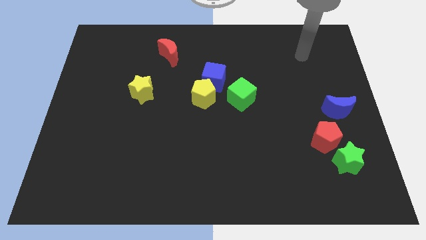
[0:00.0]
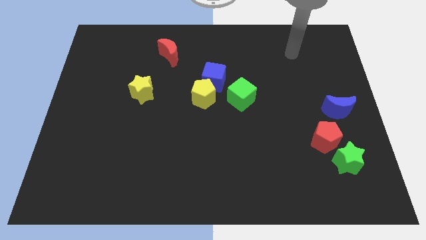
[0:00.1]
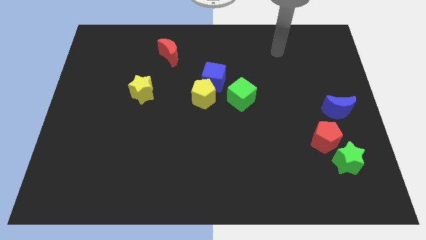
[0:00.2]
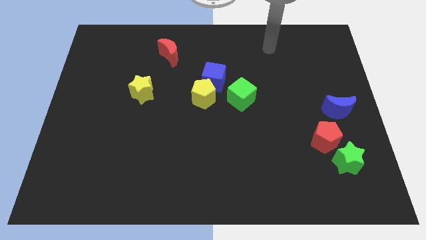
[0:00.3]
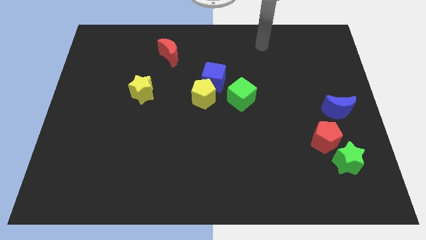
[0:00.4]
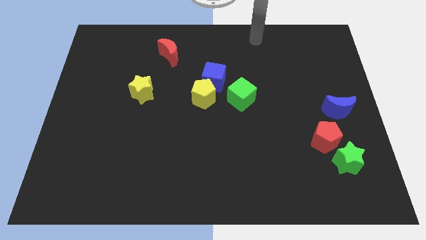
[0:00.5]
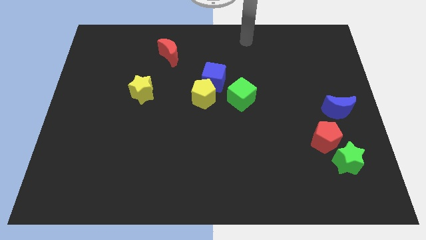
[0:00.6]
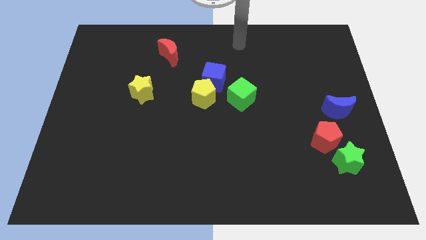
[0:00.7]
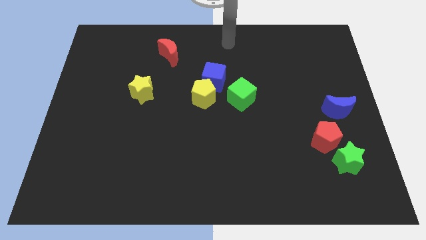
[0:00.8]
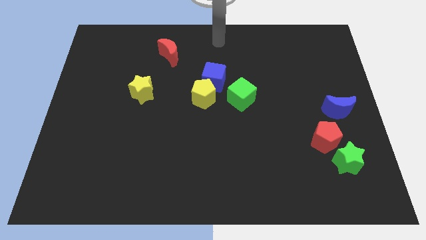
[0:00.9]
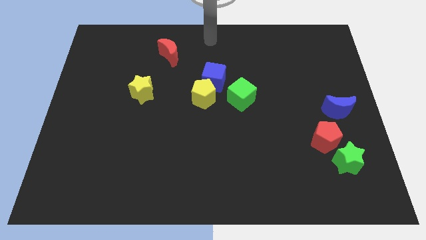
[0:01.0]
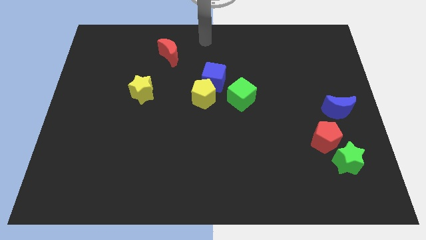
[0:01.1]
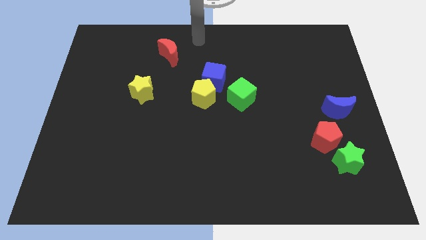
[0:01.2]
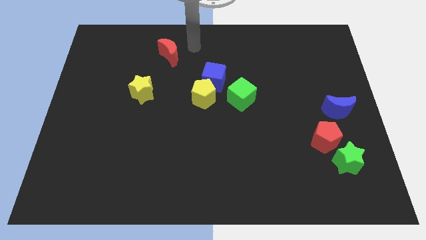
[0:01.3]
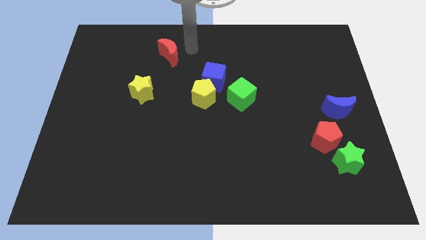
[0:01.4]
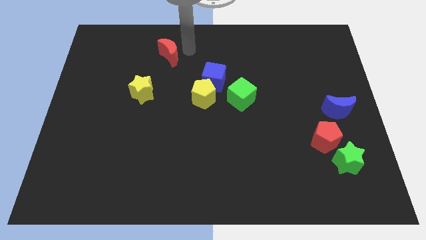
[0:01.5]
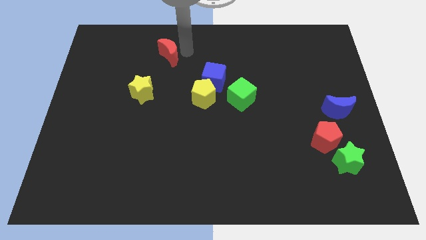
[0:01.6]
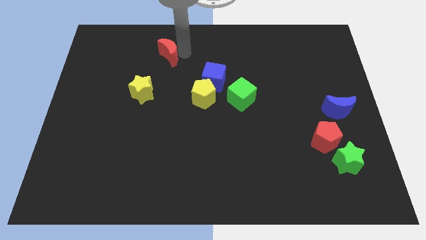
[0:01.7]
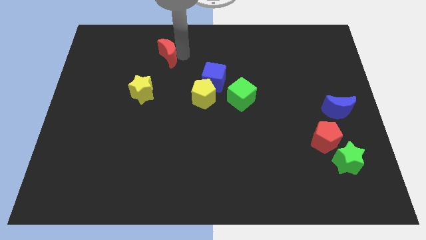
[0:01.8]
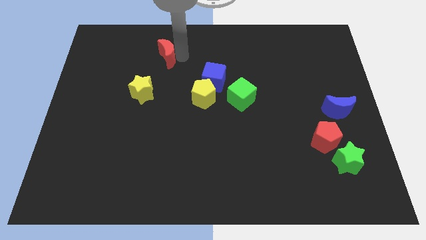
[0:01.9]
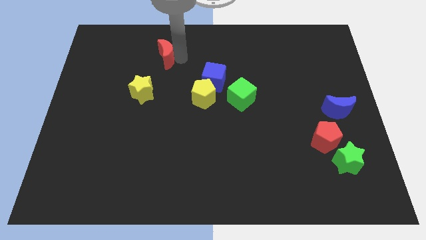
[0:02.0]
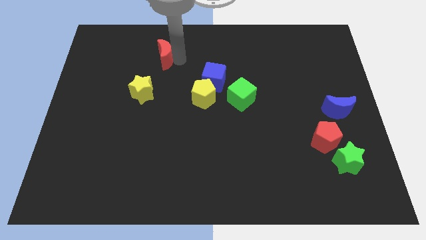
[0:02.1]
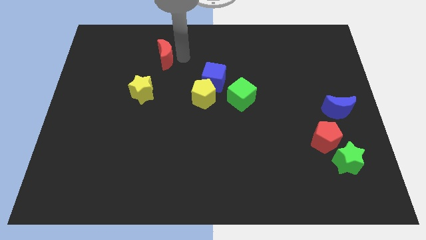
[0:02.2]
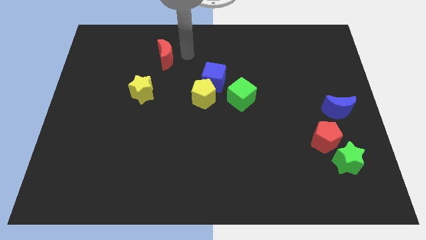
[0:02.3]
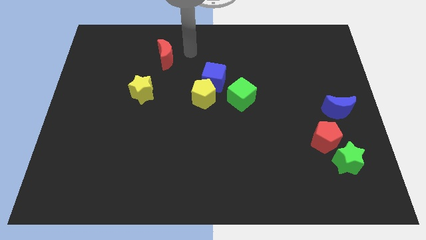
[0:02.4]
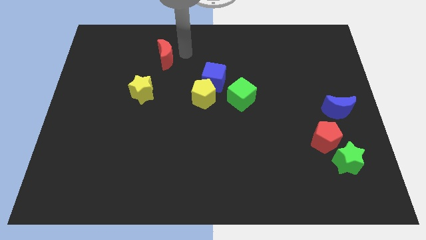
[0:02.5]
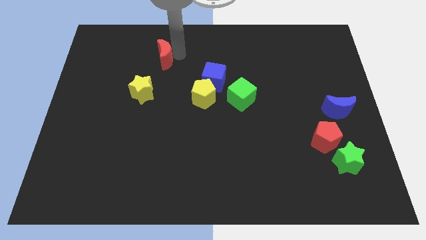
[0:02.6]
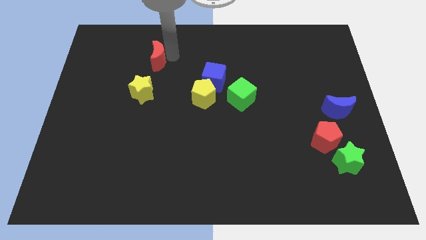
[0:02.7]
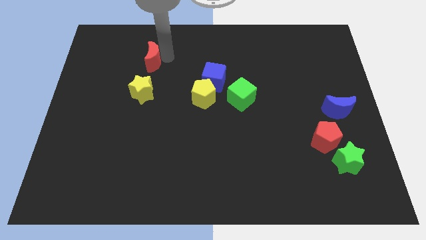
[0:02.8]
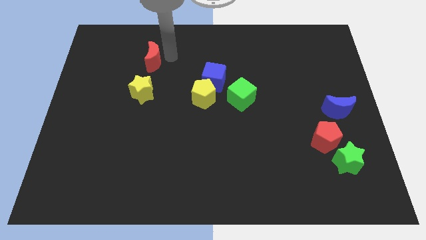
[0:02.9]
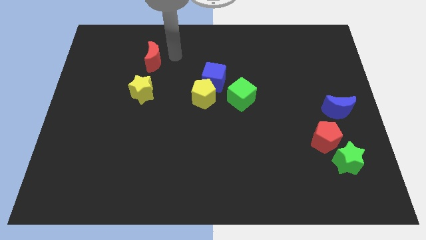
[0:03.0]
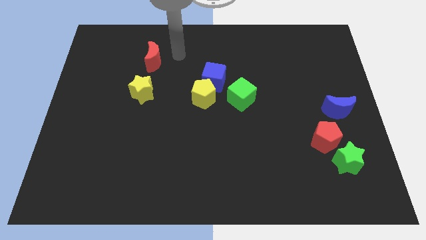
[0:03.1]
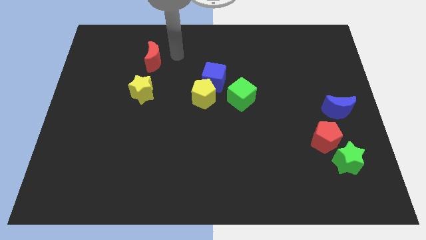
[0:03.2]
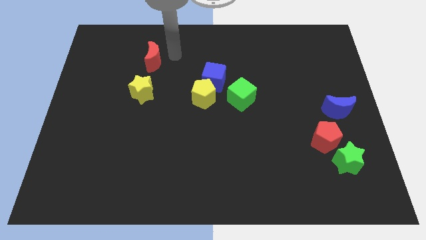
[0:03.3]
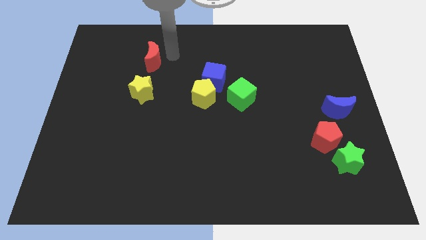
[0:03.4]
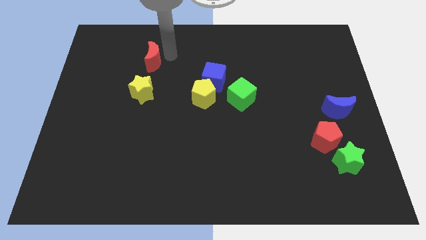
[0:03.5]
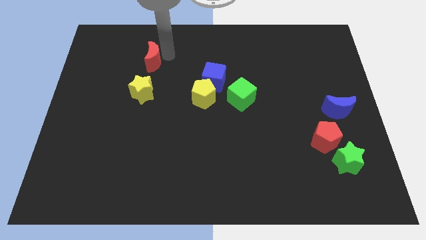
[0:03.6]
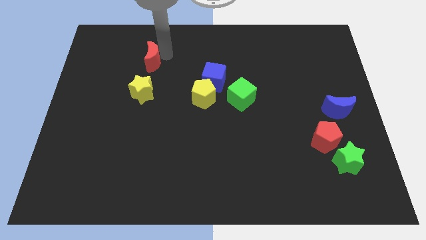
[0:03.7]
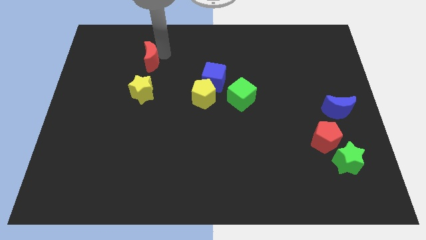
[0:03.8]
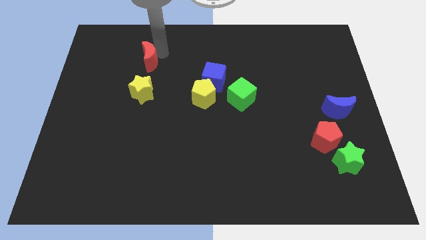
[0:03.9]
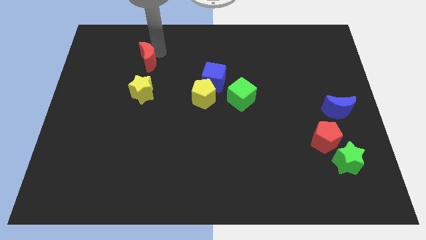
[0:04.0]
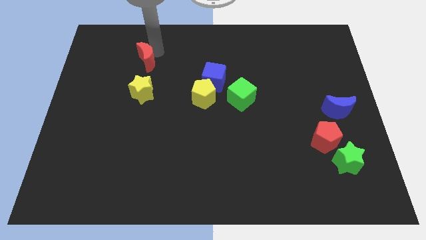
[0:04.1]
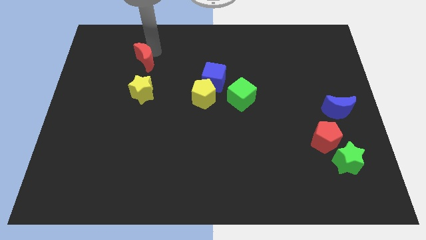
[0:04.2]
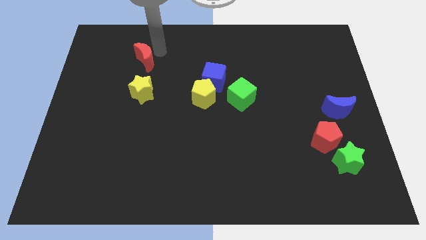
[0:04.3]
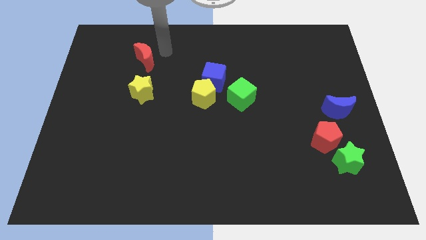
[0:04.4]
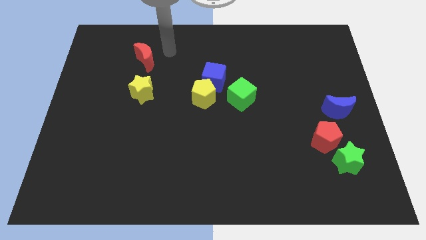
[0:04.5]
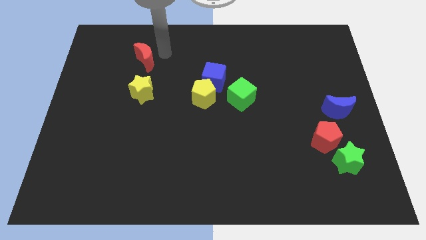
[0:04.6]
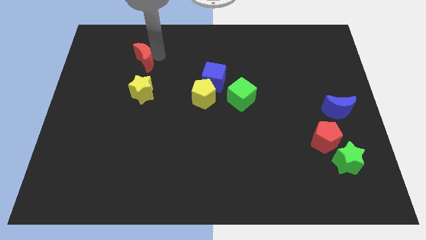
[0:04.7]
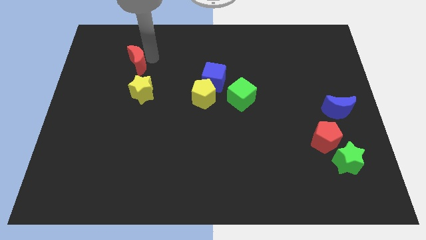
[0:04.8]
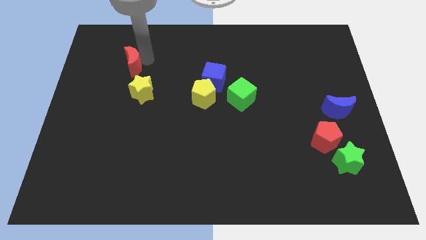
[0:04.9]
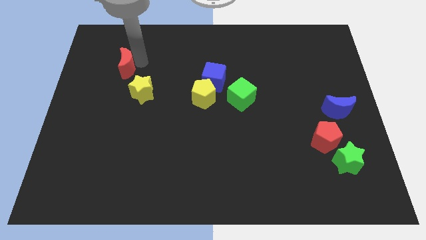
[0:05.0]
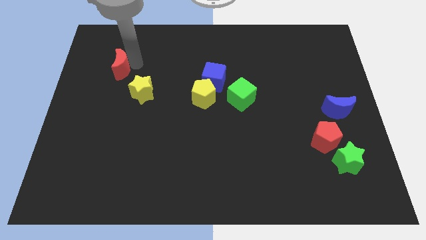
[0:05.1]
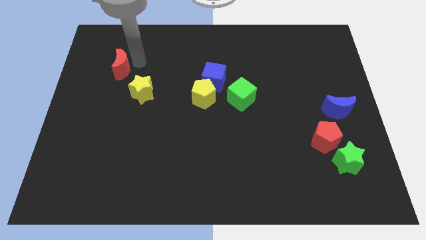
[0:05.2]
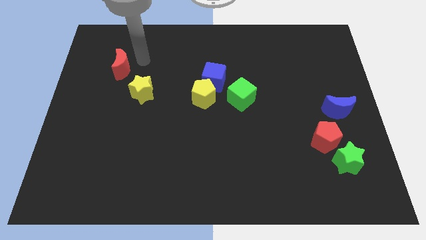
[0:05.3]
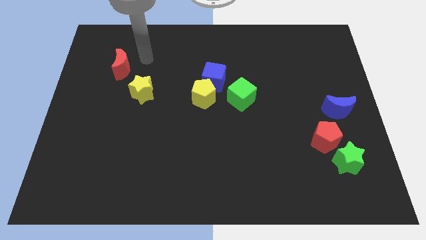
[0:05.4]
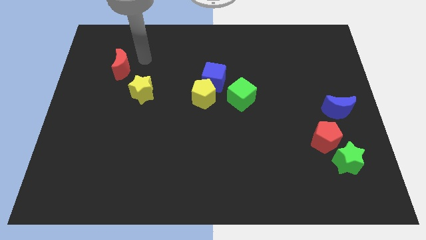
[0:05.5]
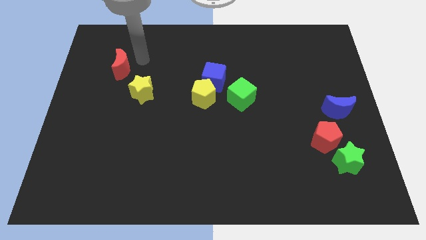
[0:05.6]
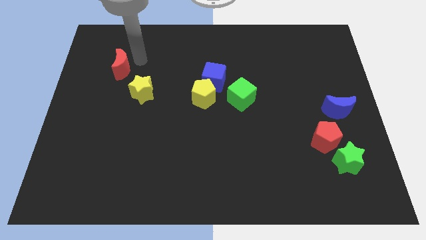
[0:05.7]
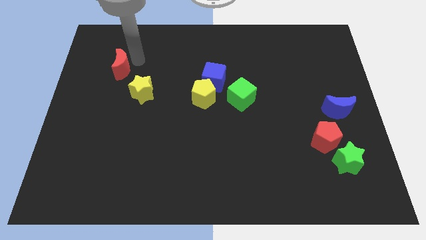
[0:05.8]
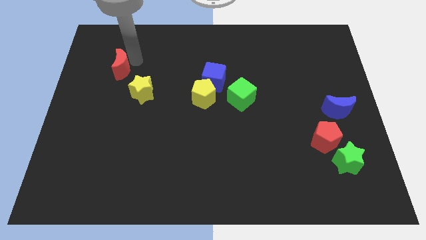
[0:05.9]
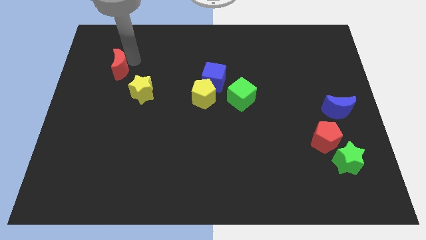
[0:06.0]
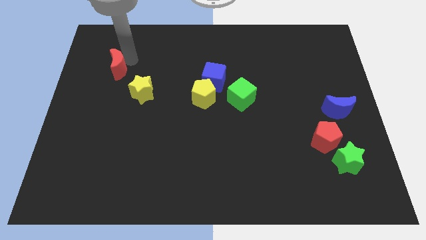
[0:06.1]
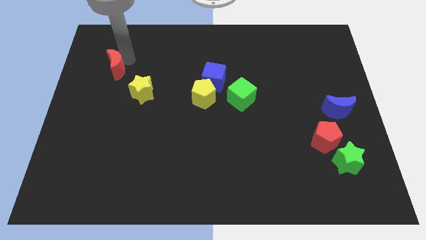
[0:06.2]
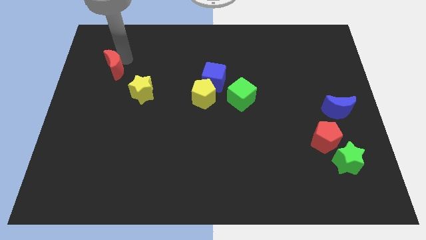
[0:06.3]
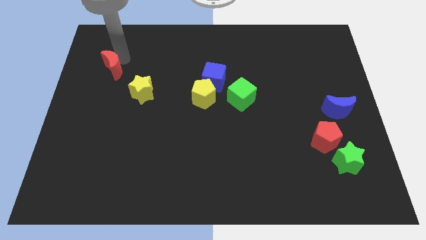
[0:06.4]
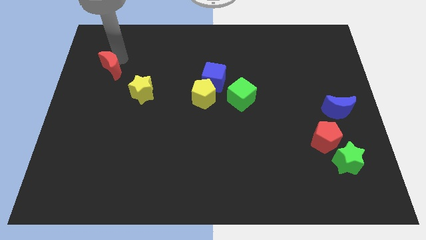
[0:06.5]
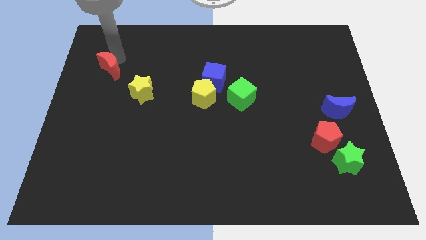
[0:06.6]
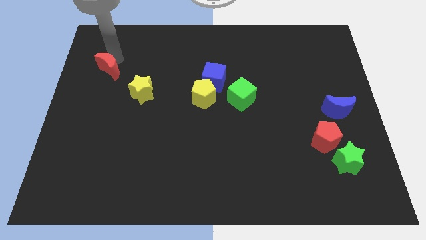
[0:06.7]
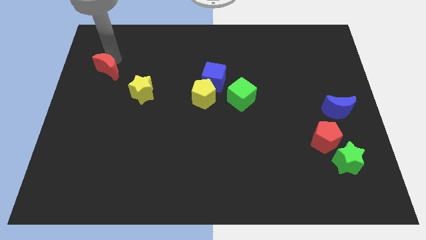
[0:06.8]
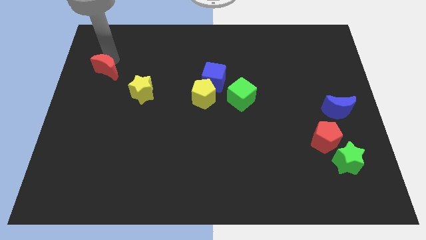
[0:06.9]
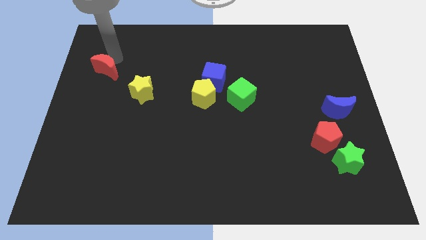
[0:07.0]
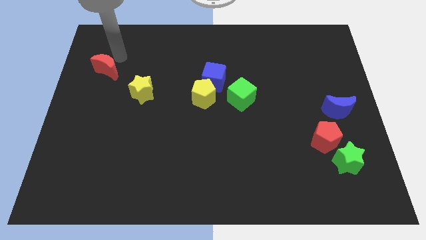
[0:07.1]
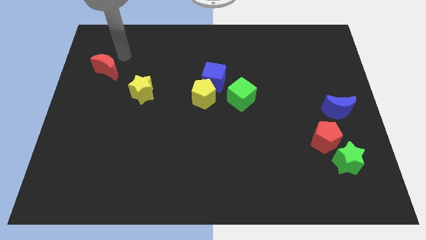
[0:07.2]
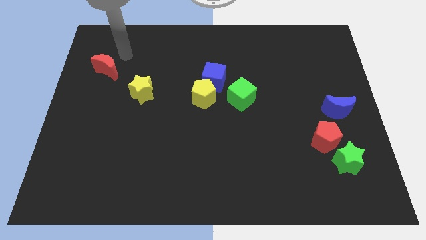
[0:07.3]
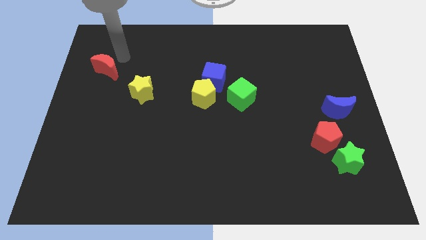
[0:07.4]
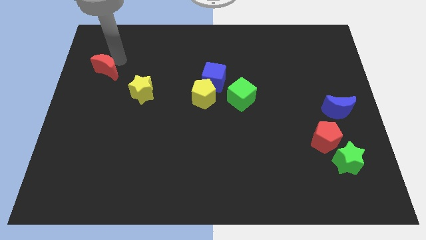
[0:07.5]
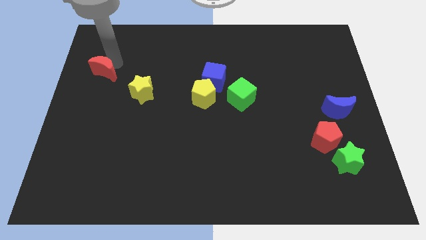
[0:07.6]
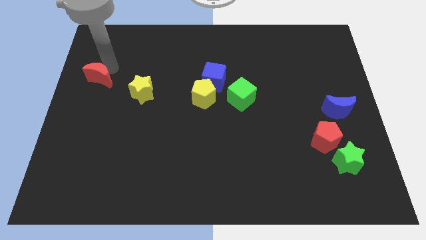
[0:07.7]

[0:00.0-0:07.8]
put the red moon to the center left
